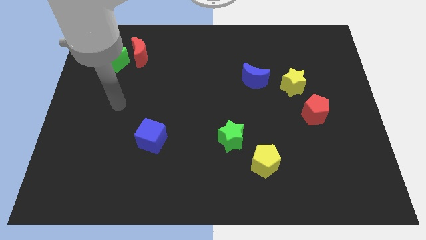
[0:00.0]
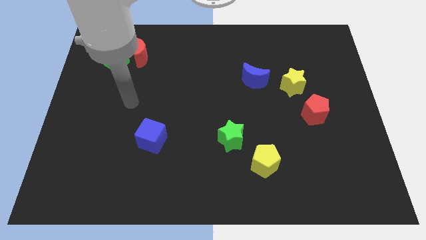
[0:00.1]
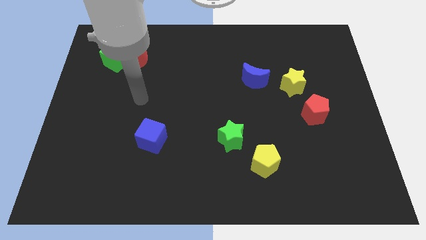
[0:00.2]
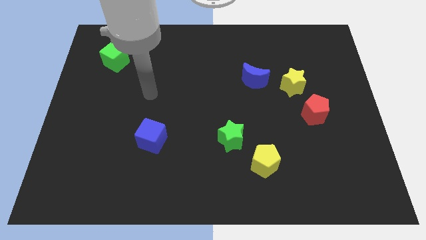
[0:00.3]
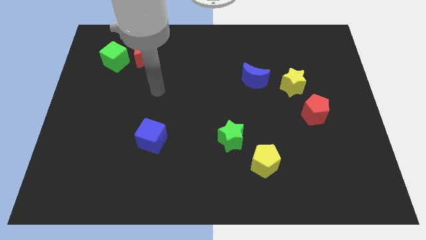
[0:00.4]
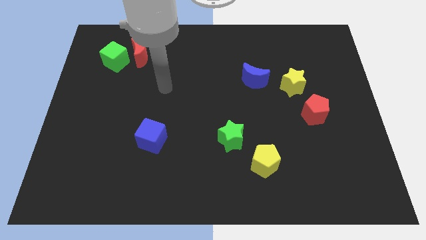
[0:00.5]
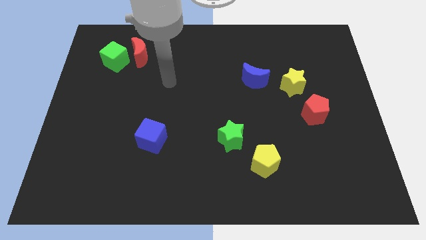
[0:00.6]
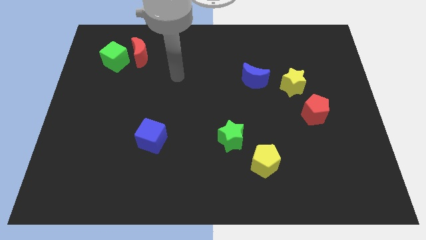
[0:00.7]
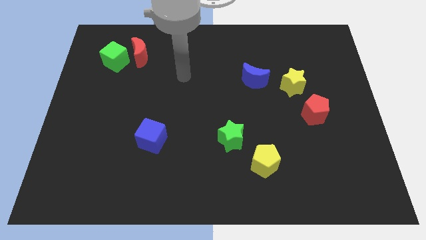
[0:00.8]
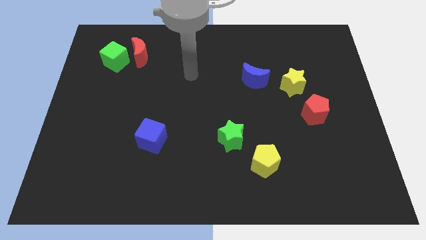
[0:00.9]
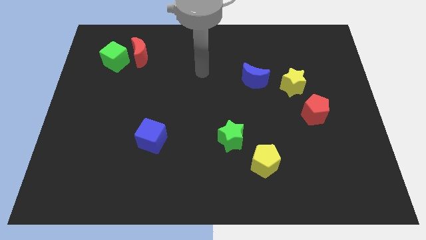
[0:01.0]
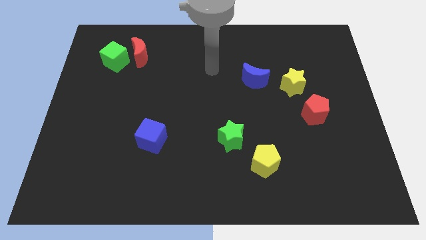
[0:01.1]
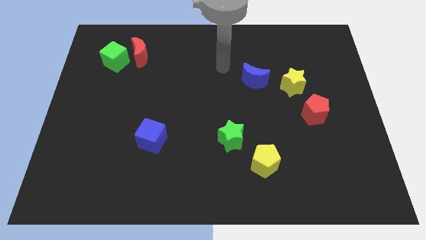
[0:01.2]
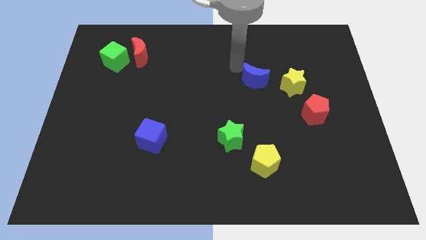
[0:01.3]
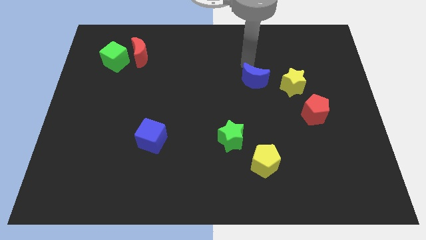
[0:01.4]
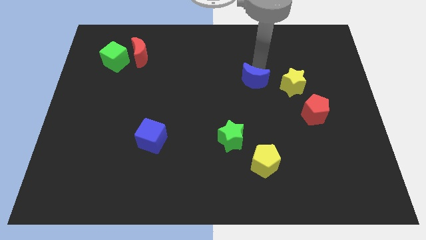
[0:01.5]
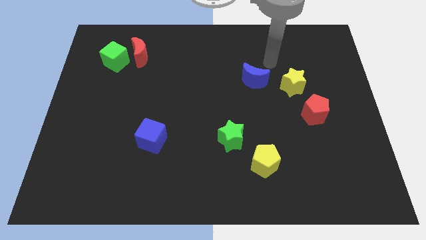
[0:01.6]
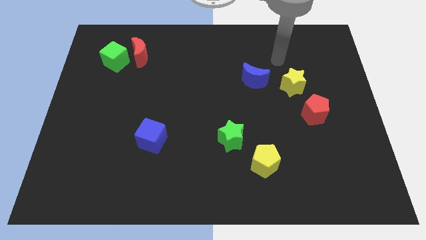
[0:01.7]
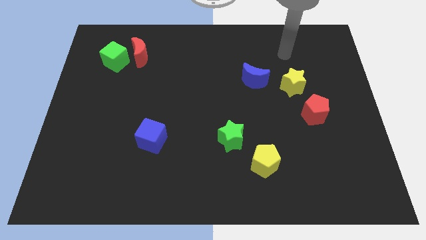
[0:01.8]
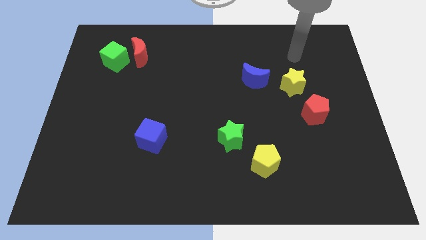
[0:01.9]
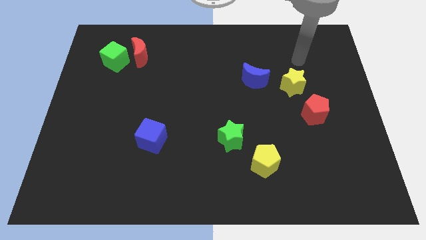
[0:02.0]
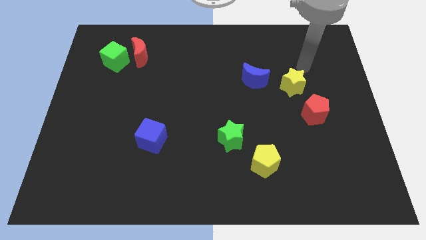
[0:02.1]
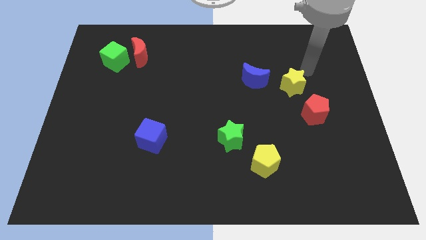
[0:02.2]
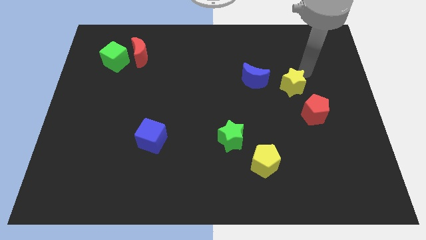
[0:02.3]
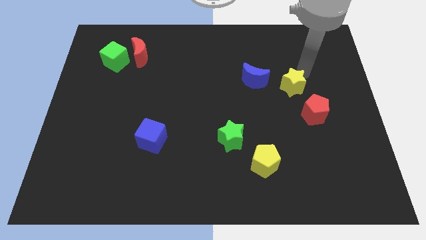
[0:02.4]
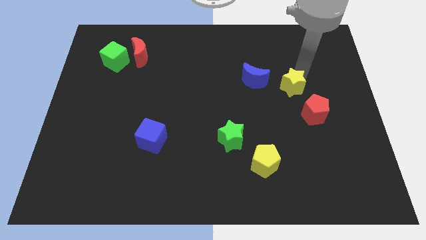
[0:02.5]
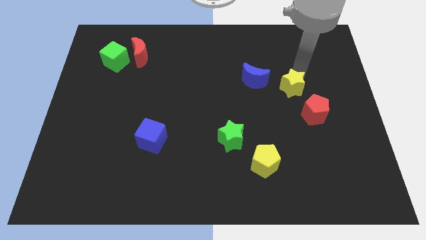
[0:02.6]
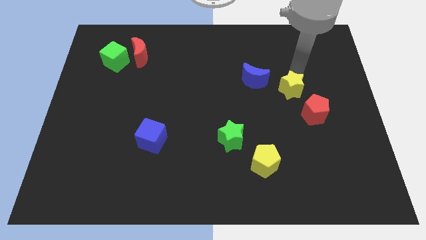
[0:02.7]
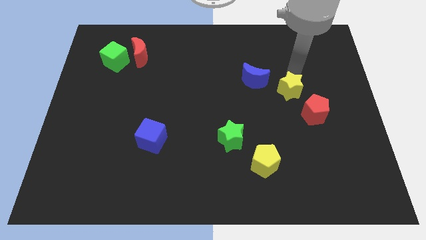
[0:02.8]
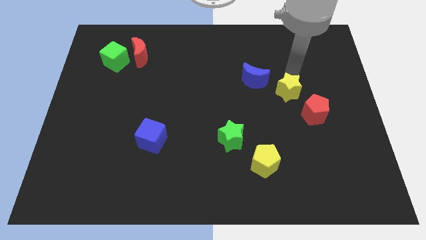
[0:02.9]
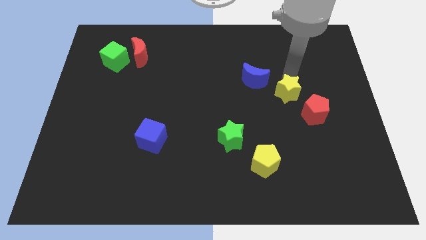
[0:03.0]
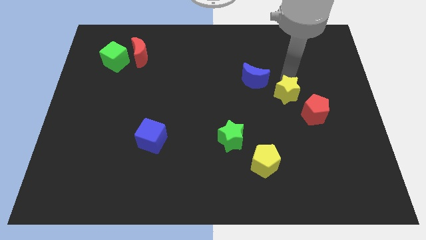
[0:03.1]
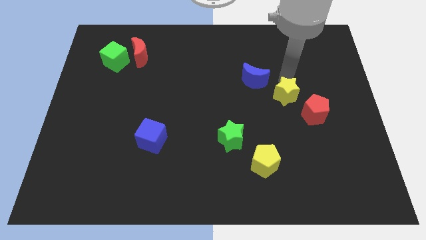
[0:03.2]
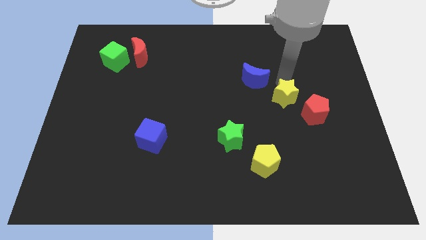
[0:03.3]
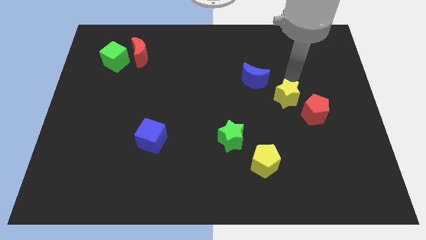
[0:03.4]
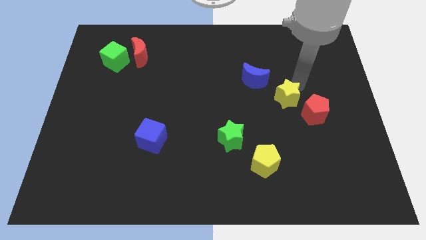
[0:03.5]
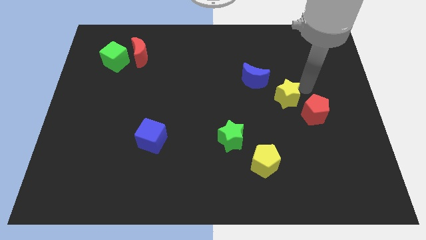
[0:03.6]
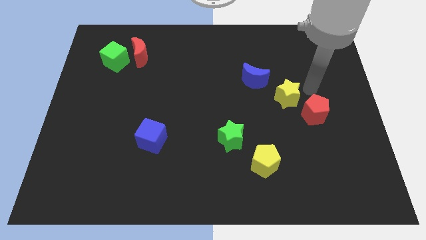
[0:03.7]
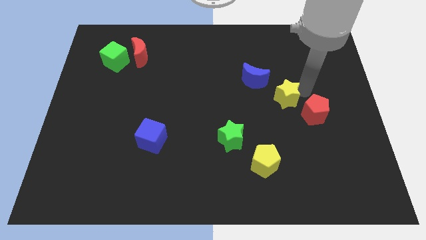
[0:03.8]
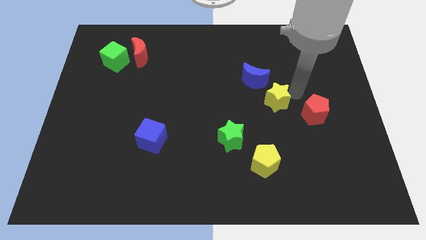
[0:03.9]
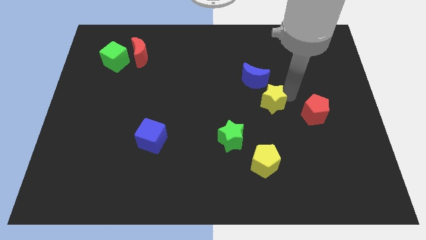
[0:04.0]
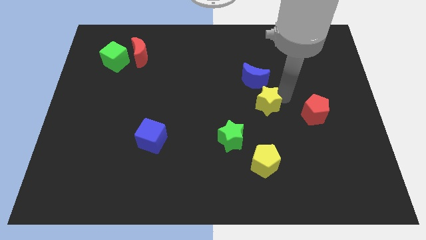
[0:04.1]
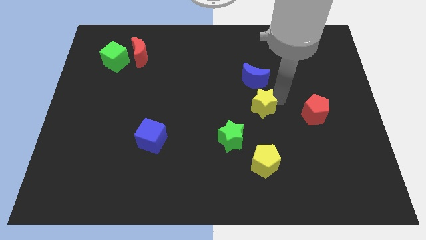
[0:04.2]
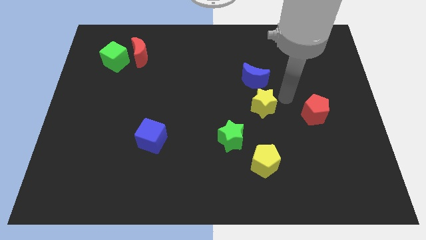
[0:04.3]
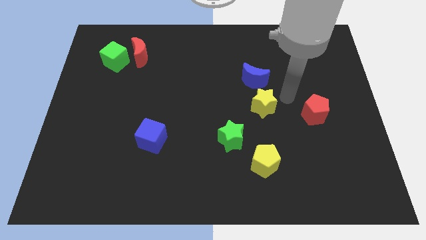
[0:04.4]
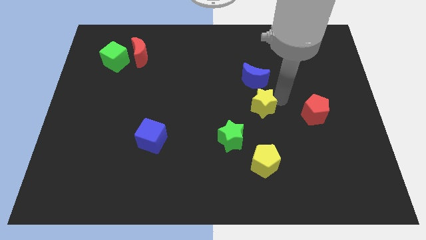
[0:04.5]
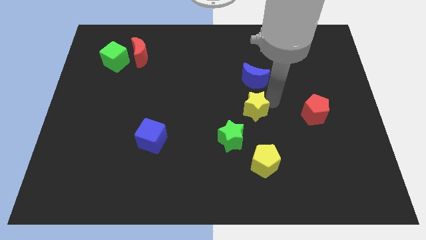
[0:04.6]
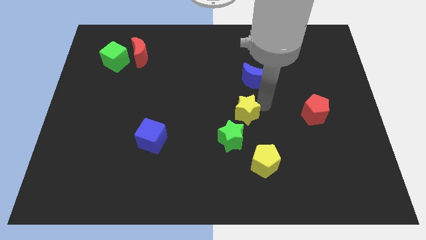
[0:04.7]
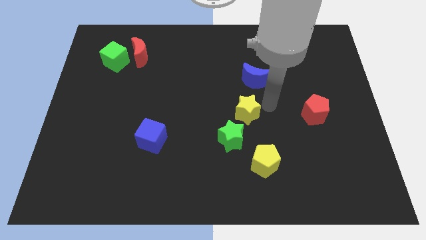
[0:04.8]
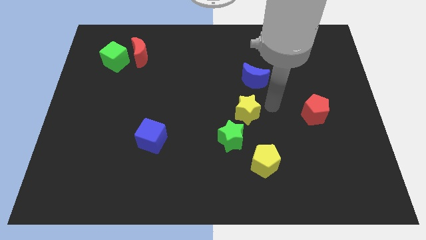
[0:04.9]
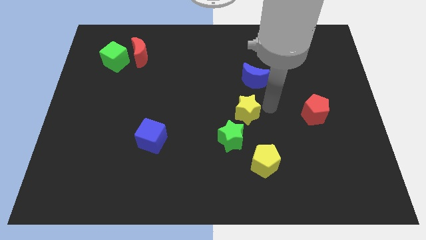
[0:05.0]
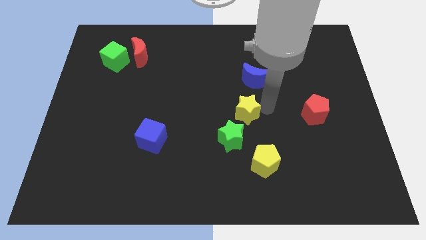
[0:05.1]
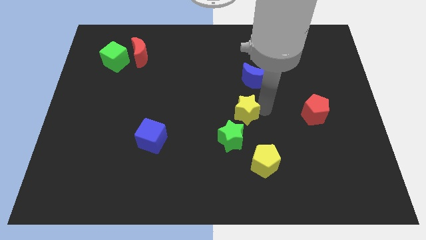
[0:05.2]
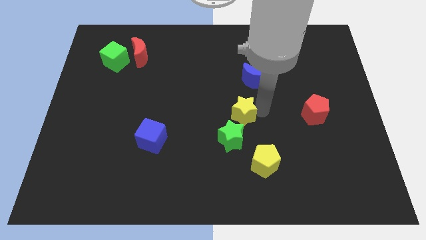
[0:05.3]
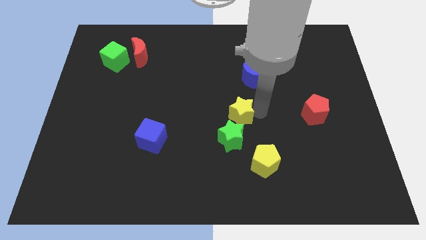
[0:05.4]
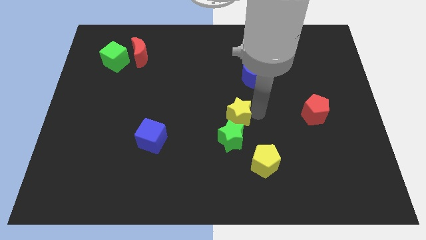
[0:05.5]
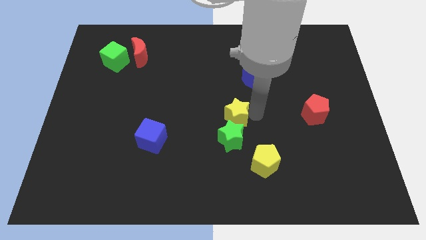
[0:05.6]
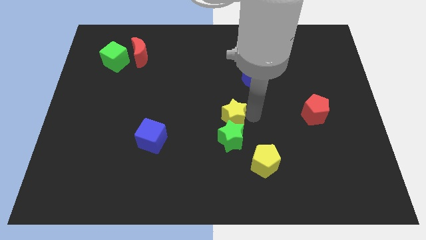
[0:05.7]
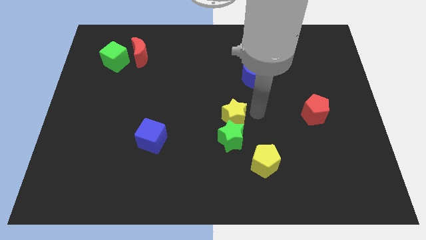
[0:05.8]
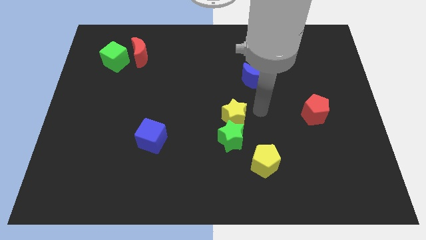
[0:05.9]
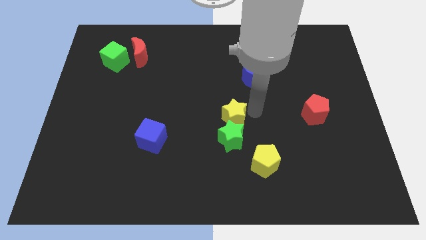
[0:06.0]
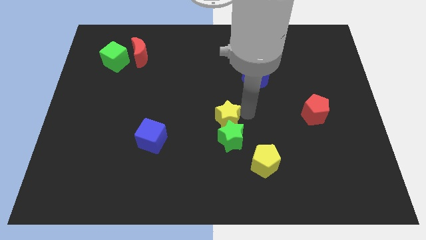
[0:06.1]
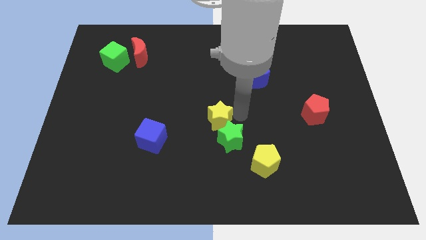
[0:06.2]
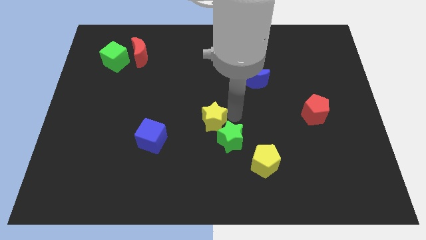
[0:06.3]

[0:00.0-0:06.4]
slide the yellow star diagonally down and left

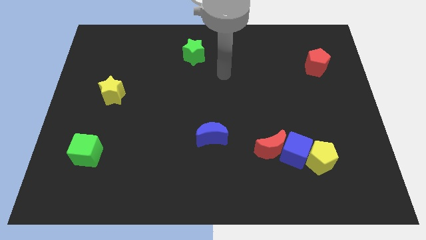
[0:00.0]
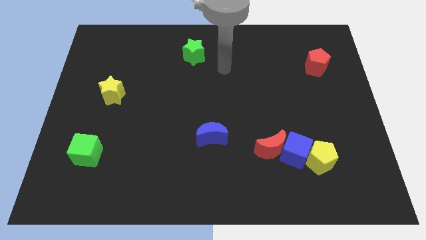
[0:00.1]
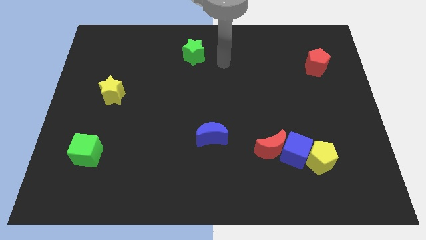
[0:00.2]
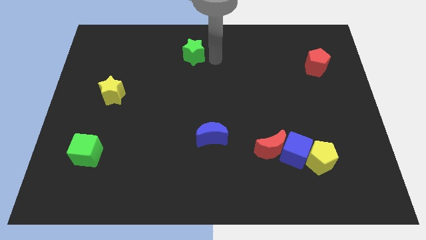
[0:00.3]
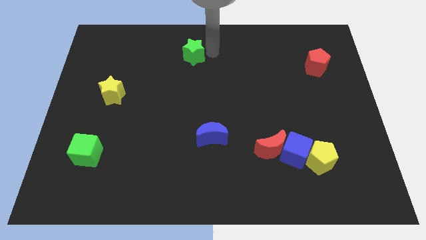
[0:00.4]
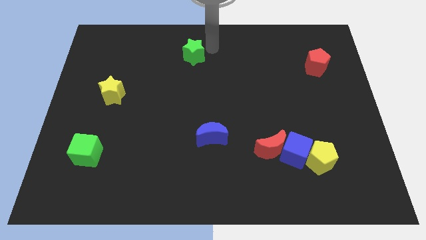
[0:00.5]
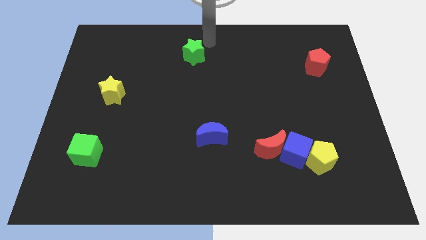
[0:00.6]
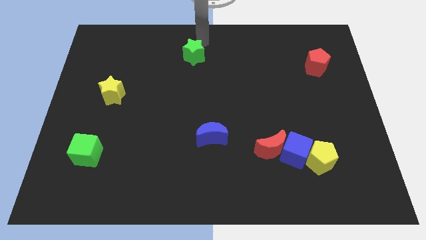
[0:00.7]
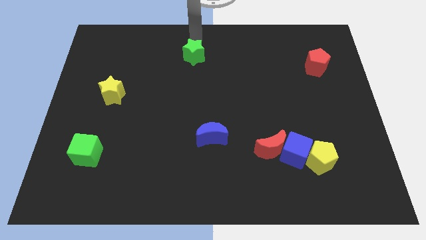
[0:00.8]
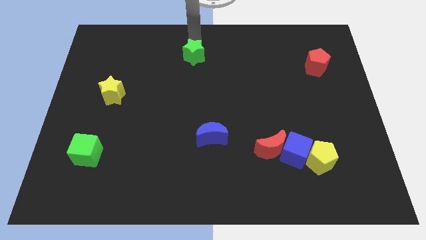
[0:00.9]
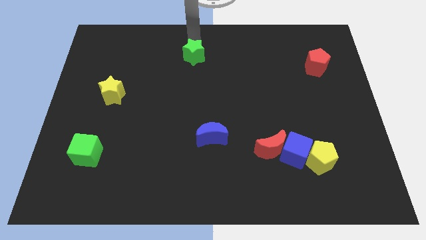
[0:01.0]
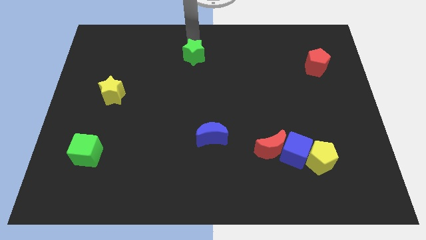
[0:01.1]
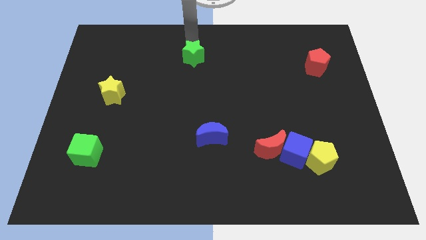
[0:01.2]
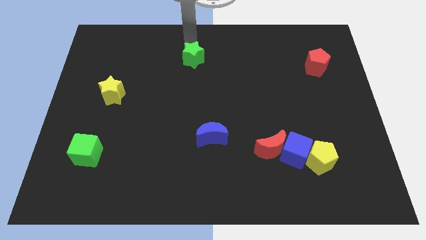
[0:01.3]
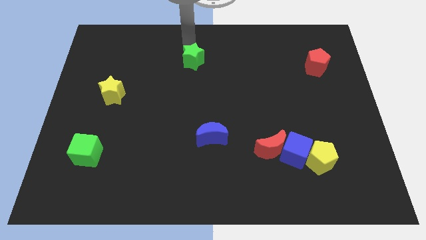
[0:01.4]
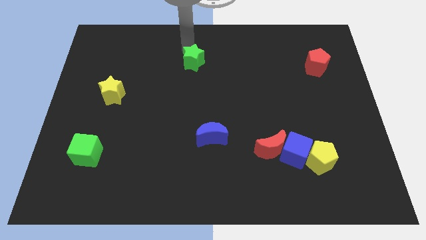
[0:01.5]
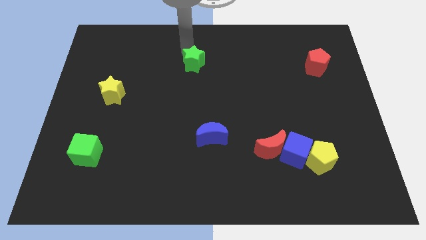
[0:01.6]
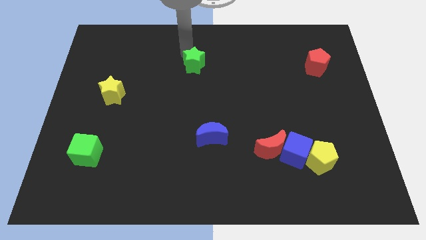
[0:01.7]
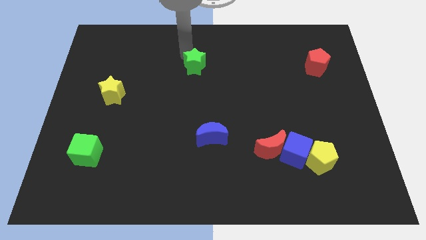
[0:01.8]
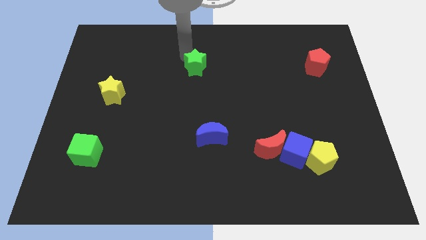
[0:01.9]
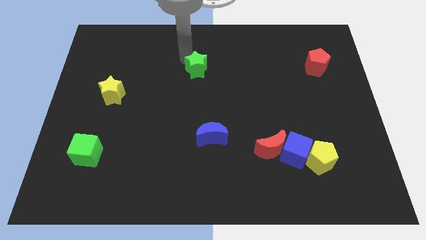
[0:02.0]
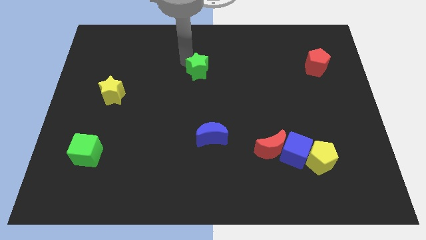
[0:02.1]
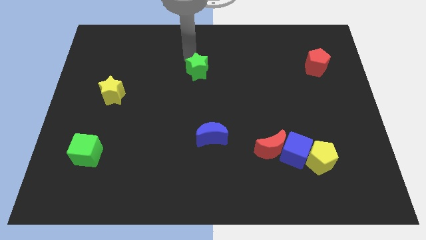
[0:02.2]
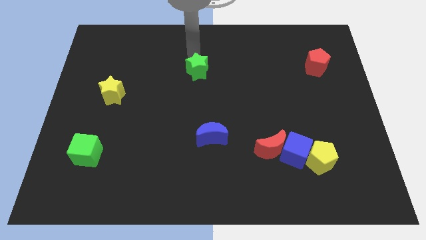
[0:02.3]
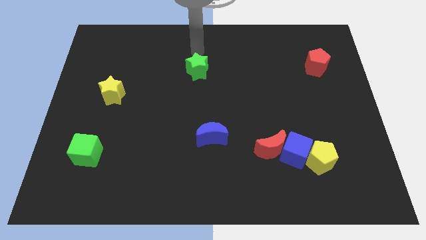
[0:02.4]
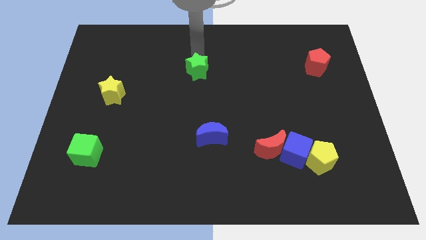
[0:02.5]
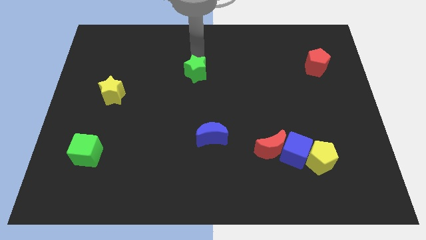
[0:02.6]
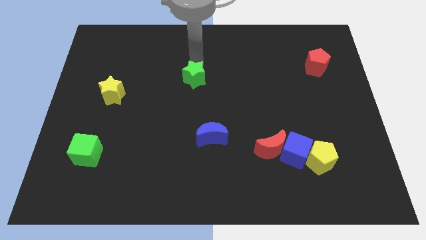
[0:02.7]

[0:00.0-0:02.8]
push the green star a bit downwards
